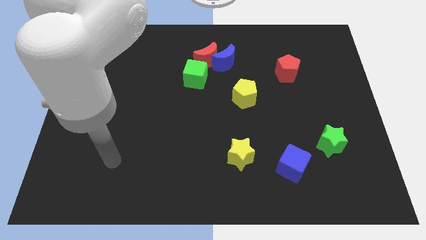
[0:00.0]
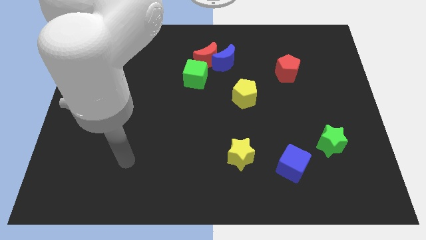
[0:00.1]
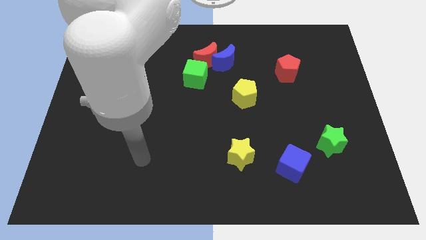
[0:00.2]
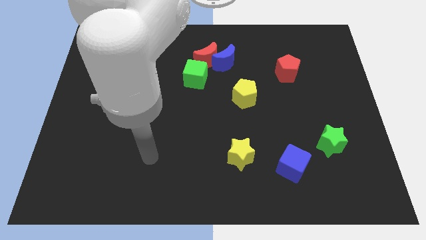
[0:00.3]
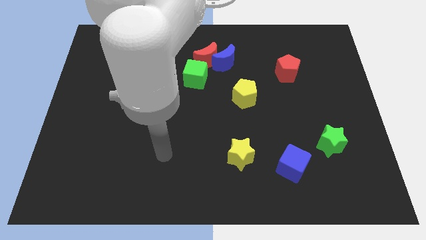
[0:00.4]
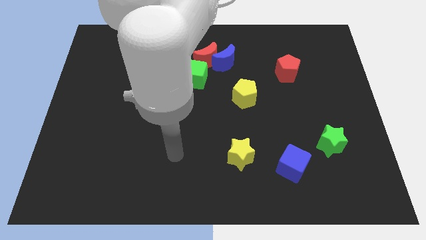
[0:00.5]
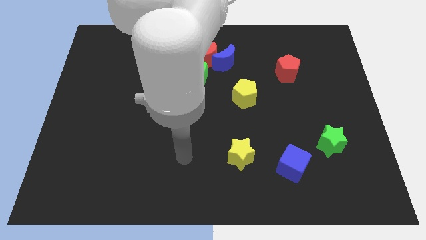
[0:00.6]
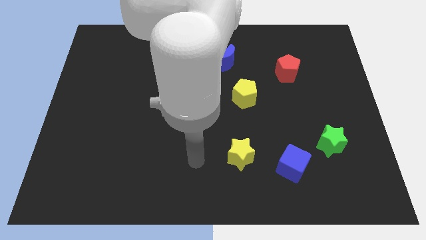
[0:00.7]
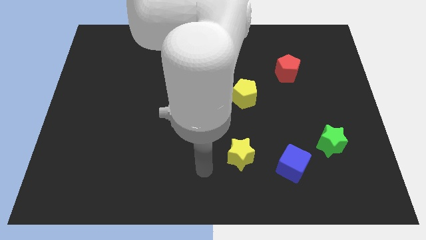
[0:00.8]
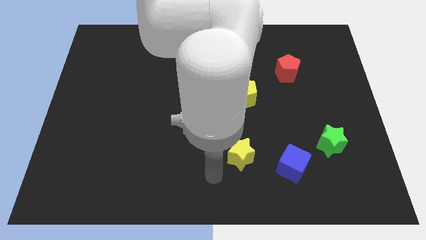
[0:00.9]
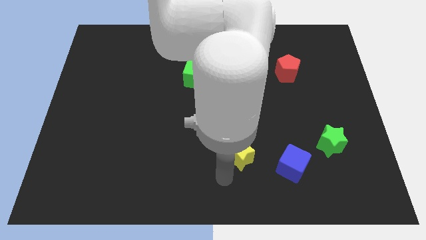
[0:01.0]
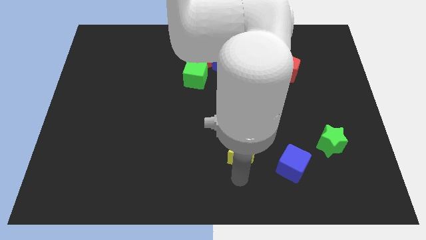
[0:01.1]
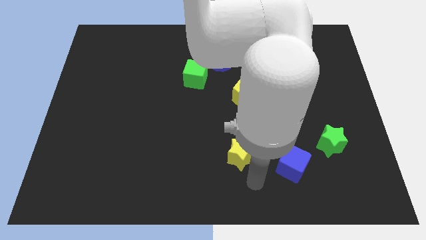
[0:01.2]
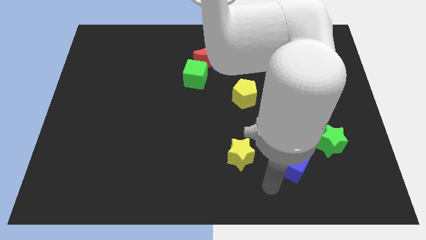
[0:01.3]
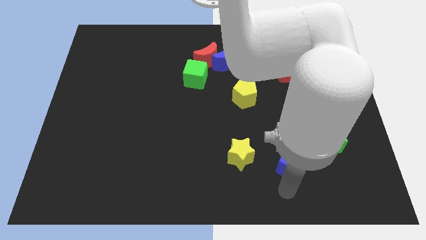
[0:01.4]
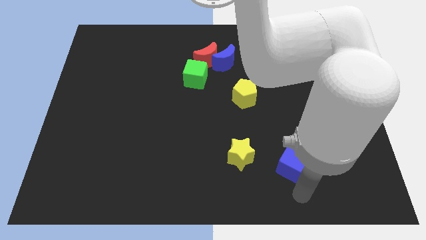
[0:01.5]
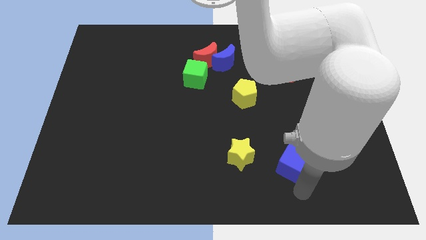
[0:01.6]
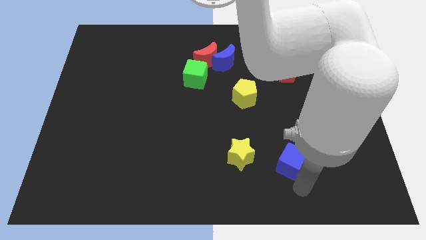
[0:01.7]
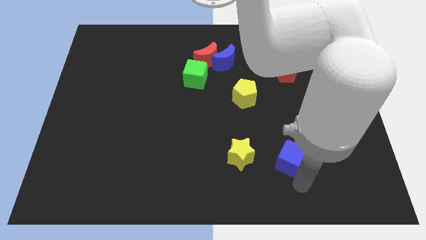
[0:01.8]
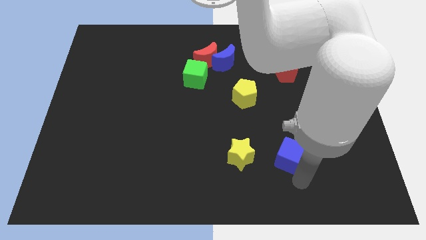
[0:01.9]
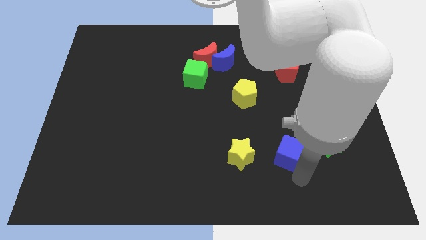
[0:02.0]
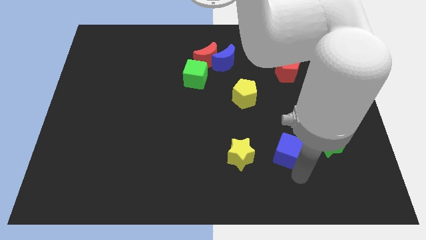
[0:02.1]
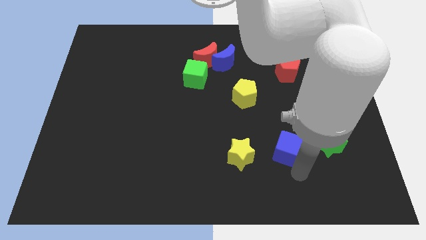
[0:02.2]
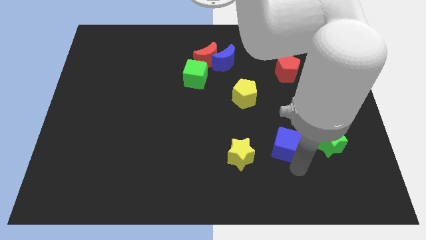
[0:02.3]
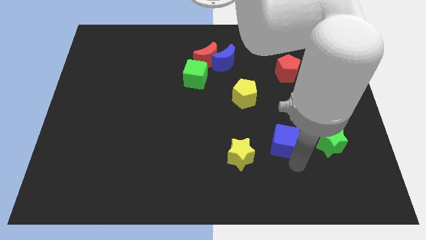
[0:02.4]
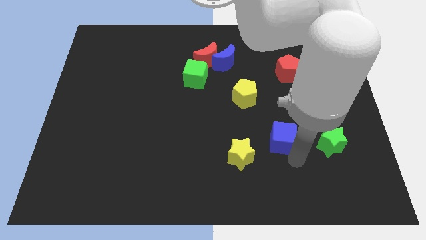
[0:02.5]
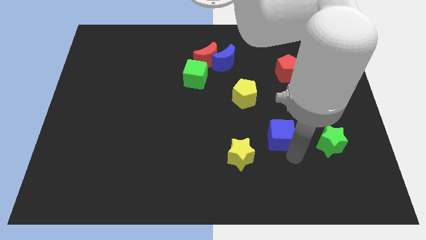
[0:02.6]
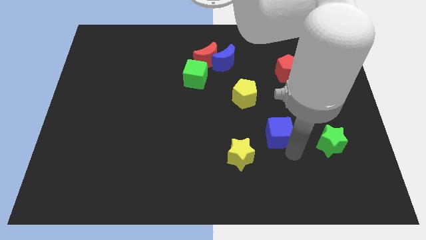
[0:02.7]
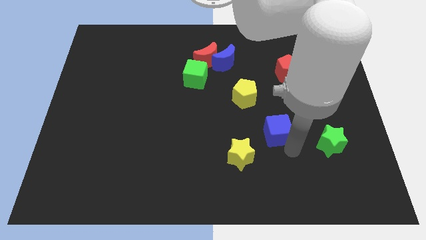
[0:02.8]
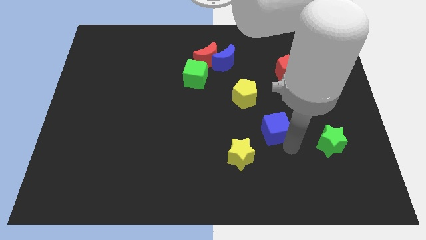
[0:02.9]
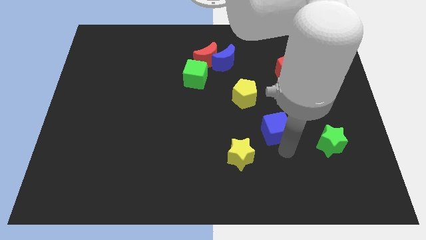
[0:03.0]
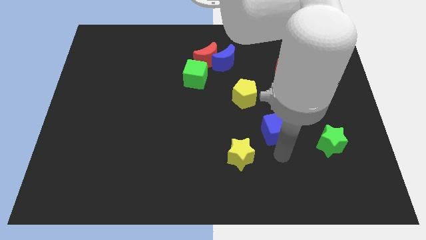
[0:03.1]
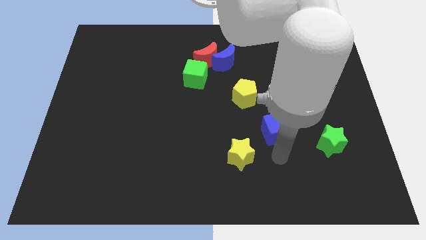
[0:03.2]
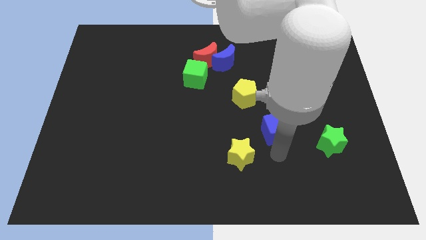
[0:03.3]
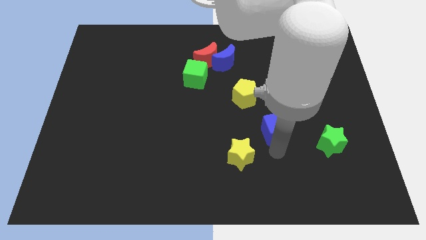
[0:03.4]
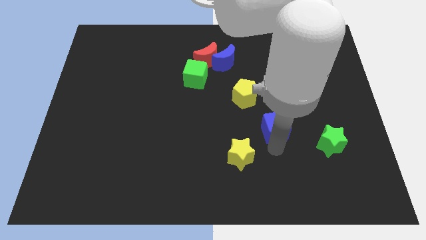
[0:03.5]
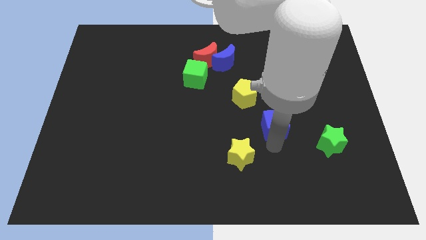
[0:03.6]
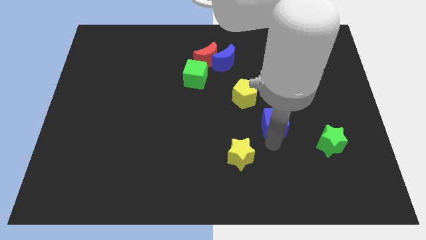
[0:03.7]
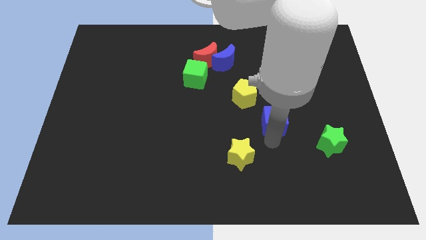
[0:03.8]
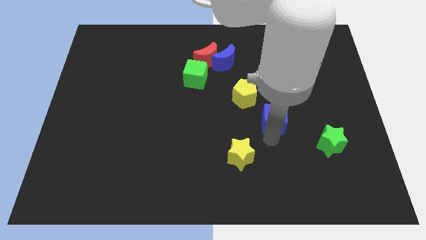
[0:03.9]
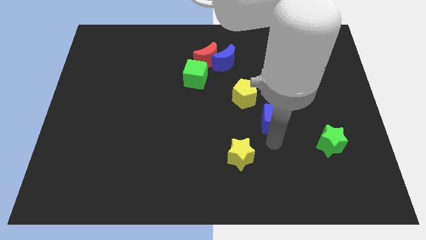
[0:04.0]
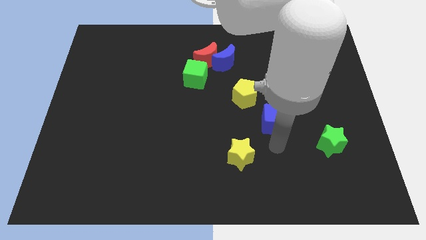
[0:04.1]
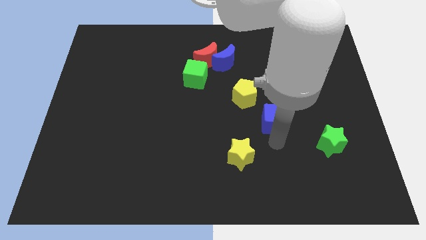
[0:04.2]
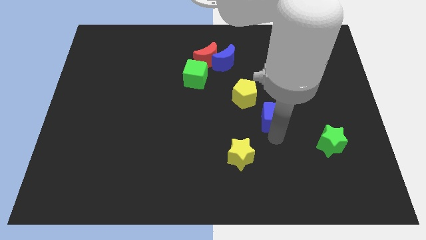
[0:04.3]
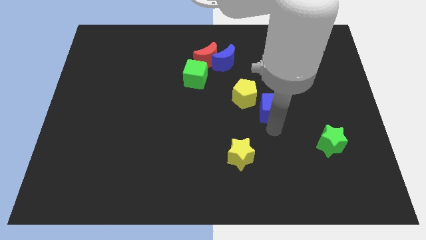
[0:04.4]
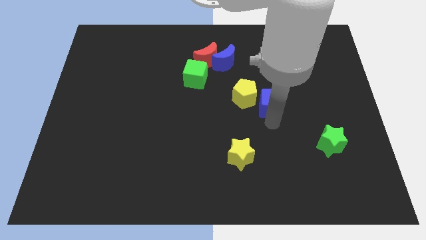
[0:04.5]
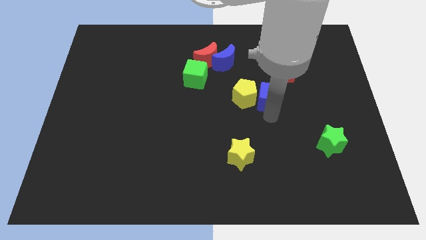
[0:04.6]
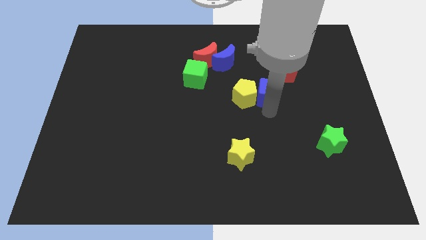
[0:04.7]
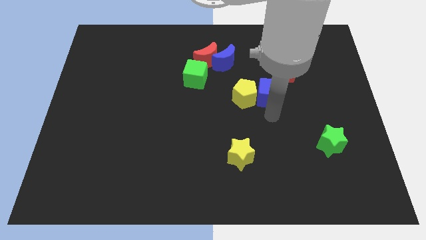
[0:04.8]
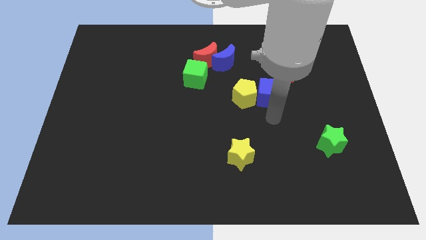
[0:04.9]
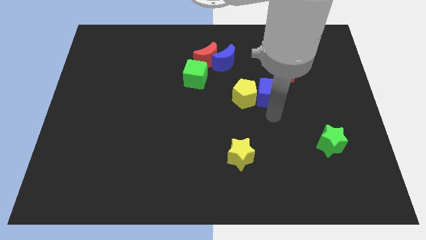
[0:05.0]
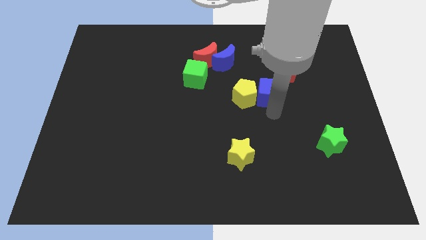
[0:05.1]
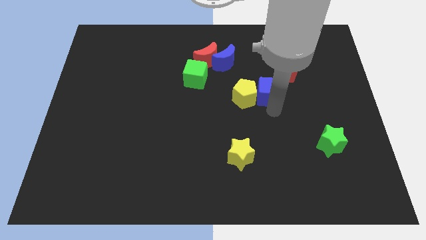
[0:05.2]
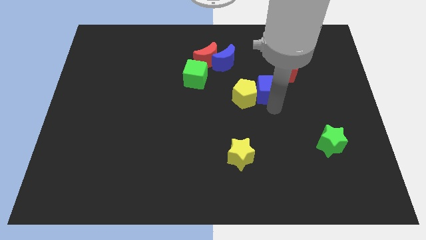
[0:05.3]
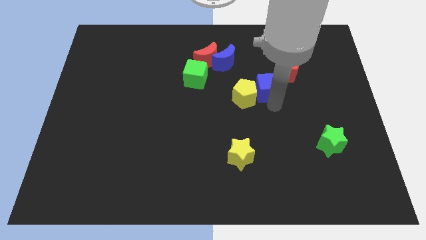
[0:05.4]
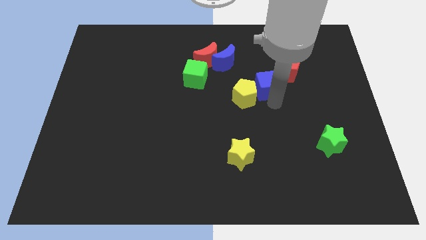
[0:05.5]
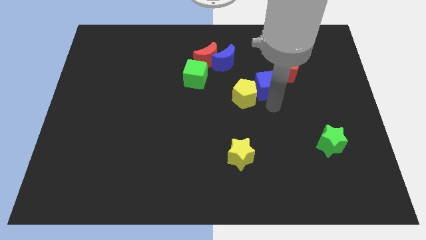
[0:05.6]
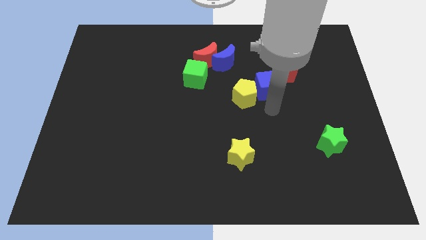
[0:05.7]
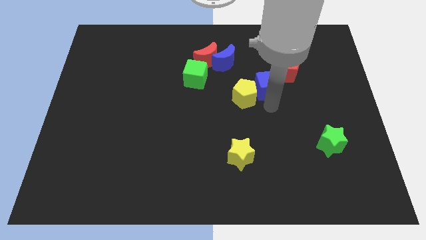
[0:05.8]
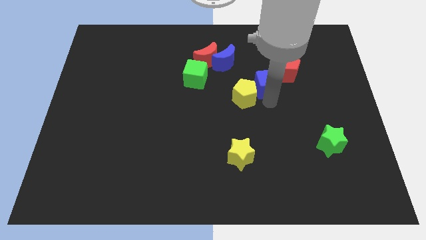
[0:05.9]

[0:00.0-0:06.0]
move the blue cube to the bottom right of the blue moon

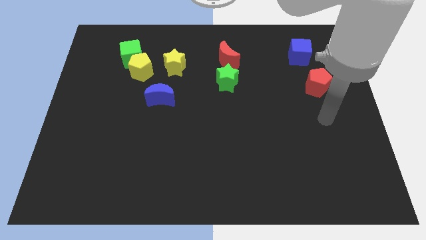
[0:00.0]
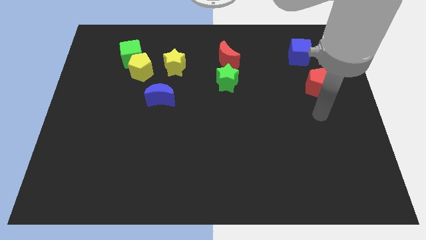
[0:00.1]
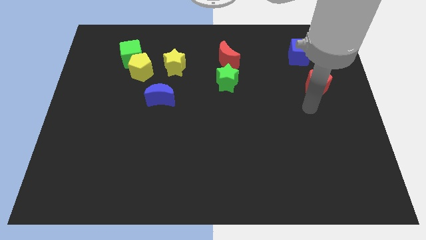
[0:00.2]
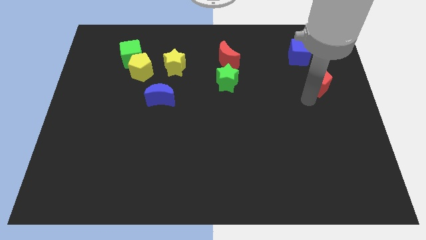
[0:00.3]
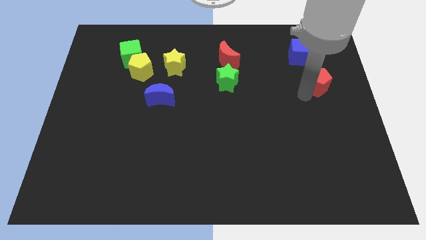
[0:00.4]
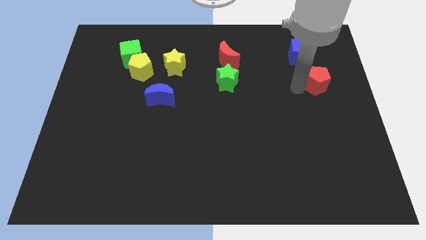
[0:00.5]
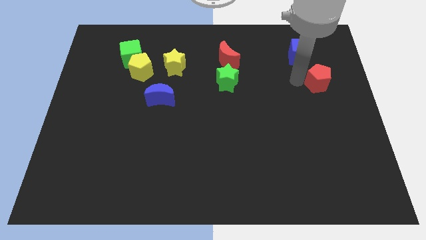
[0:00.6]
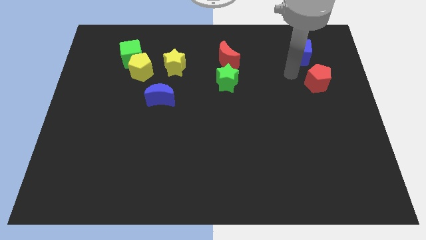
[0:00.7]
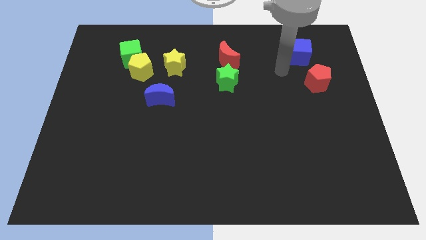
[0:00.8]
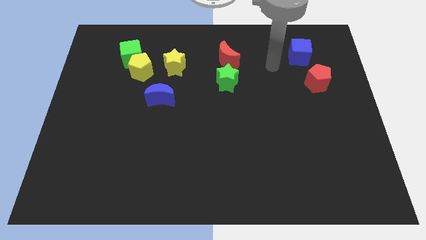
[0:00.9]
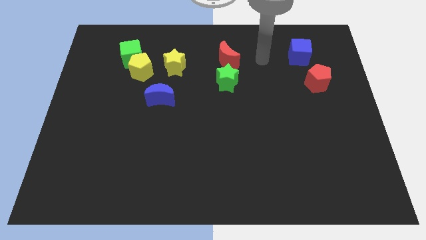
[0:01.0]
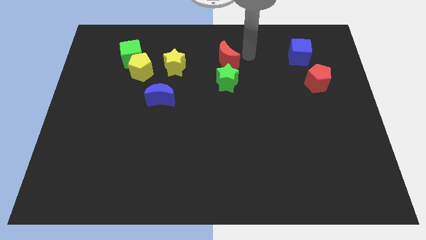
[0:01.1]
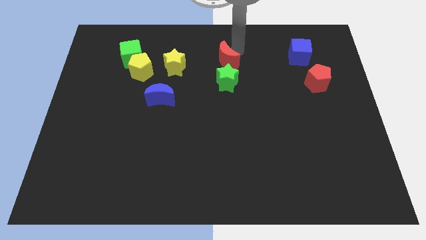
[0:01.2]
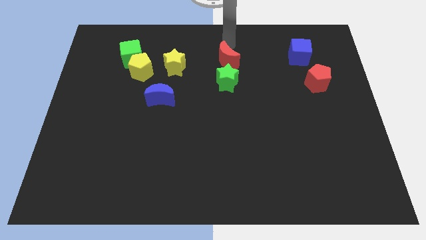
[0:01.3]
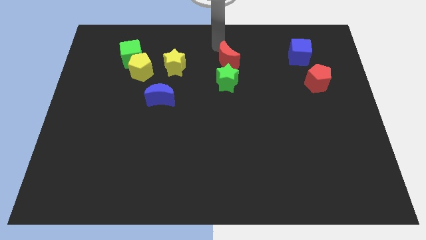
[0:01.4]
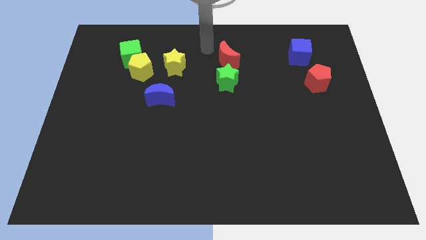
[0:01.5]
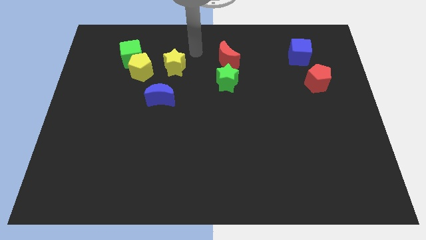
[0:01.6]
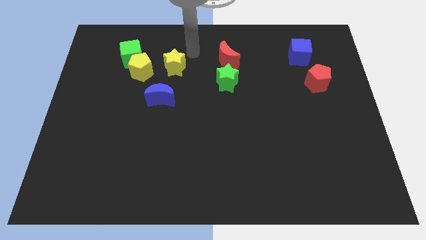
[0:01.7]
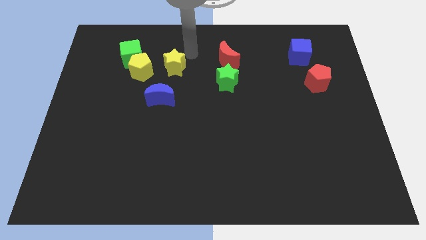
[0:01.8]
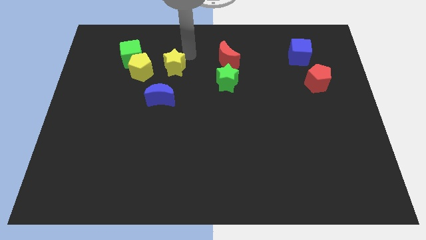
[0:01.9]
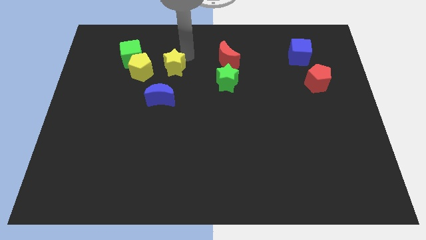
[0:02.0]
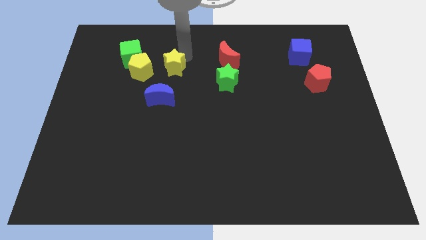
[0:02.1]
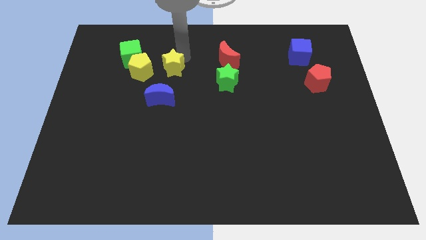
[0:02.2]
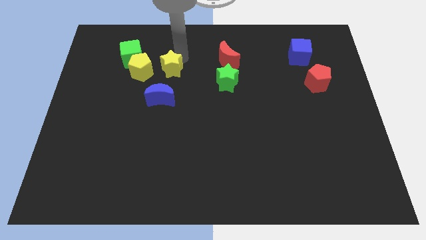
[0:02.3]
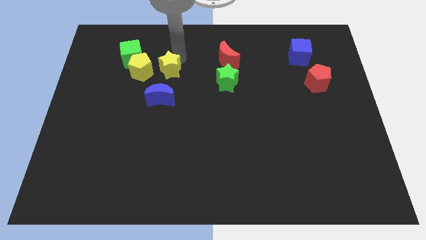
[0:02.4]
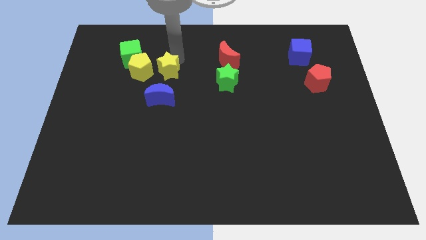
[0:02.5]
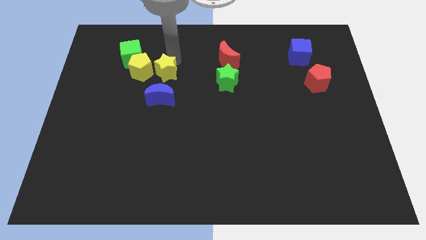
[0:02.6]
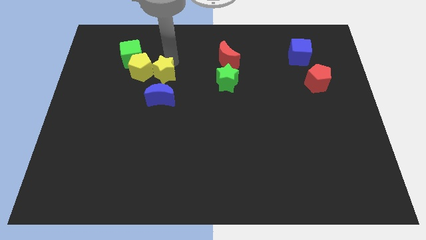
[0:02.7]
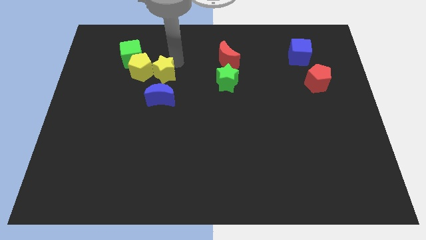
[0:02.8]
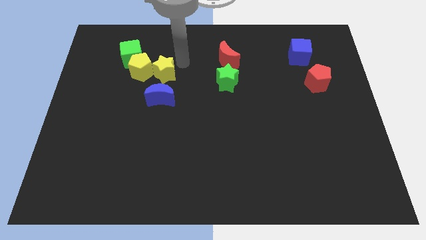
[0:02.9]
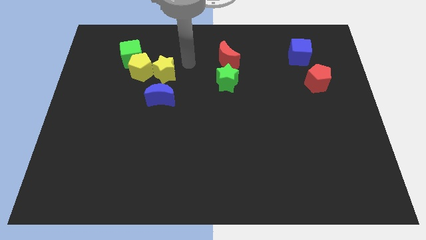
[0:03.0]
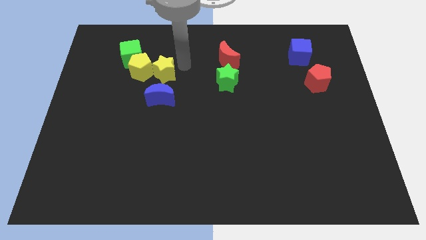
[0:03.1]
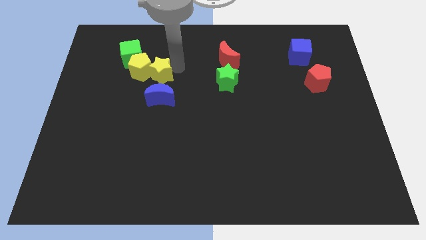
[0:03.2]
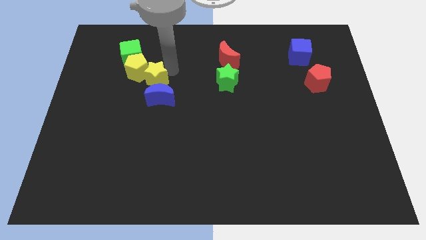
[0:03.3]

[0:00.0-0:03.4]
push the yellow star to the top left side of the blue moon
